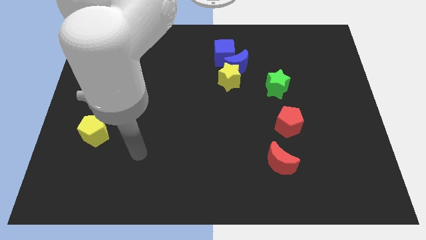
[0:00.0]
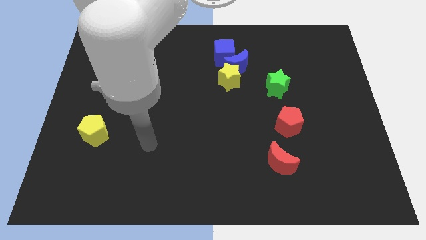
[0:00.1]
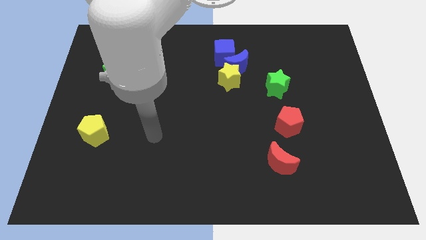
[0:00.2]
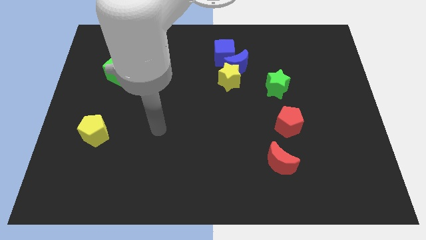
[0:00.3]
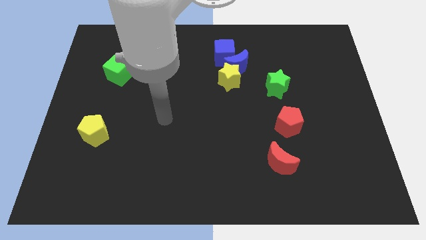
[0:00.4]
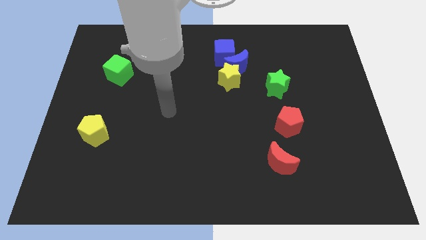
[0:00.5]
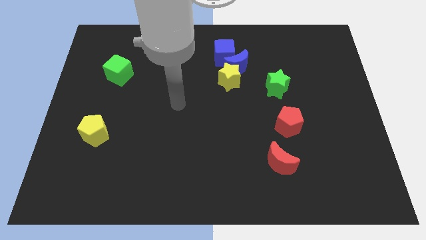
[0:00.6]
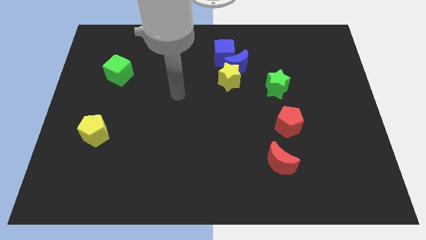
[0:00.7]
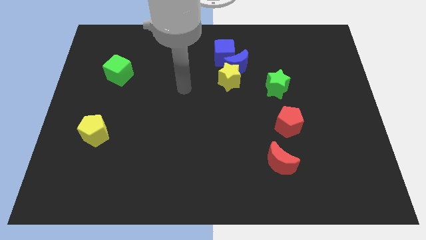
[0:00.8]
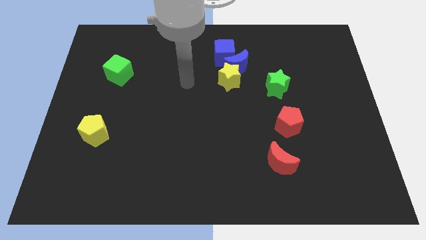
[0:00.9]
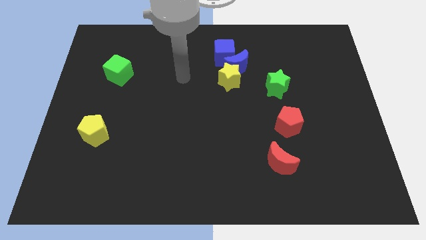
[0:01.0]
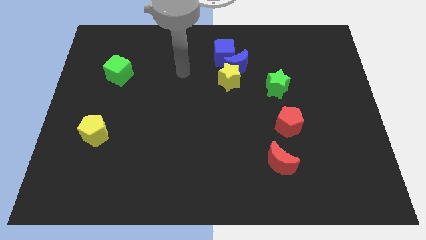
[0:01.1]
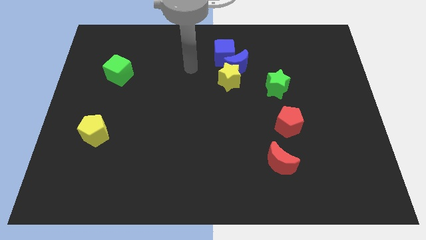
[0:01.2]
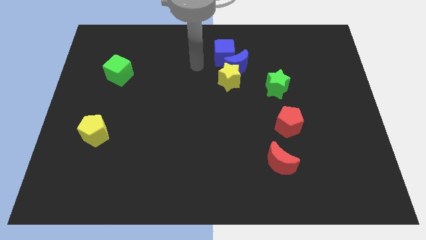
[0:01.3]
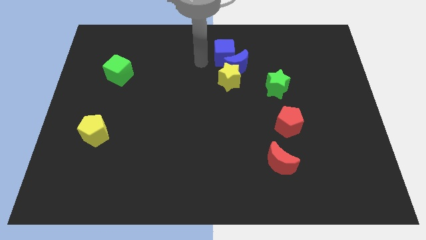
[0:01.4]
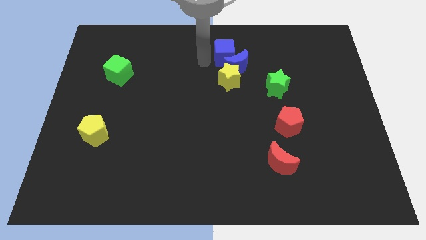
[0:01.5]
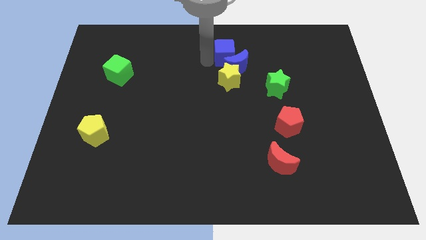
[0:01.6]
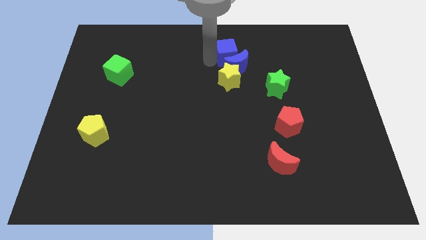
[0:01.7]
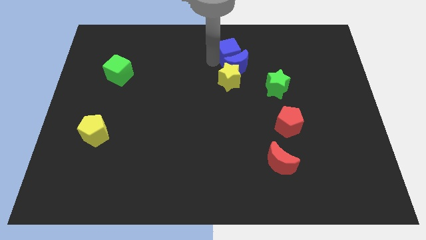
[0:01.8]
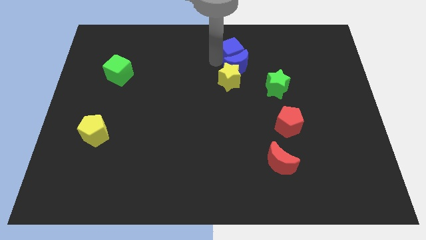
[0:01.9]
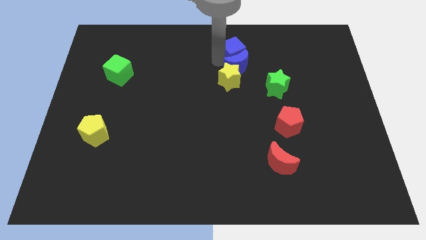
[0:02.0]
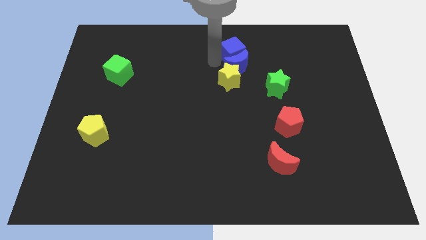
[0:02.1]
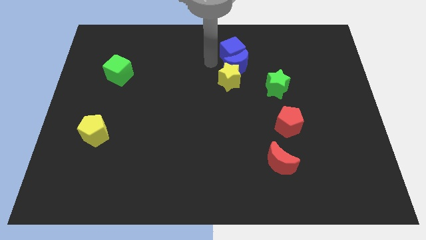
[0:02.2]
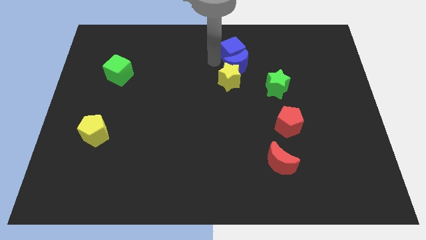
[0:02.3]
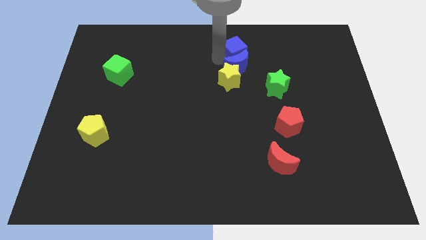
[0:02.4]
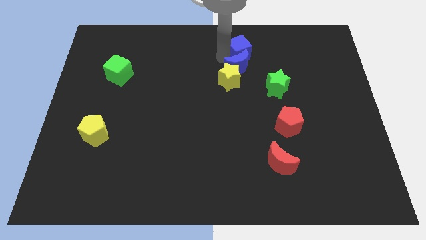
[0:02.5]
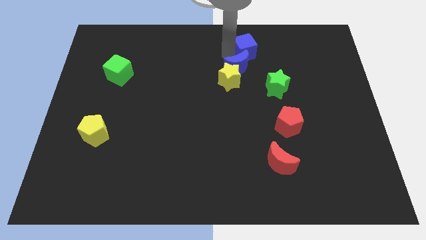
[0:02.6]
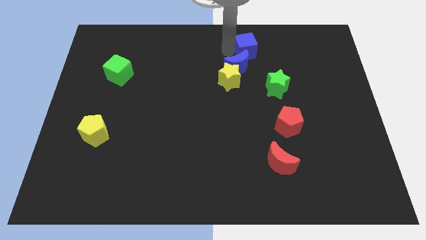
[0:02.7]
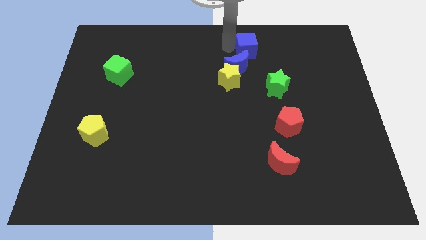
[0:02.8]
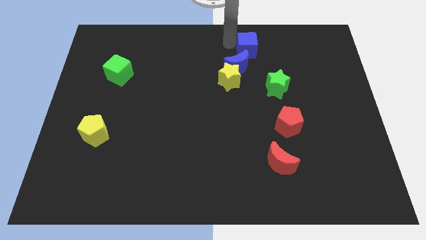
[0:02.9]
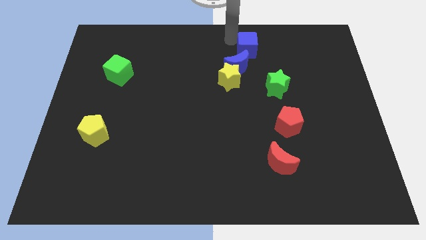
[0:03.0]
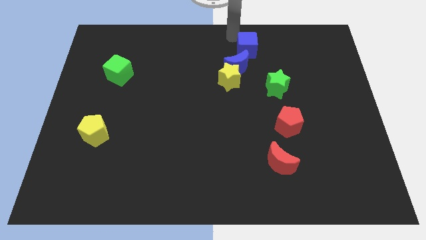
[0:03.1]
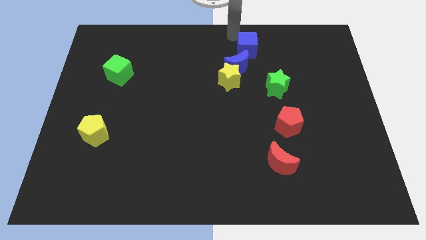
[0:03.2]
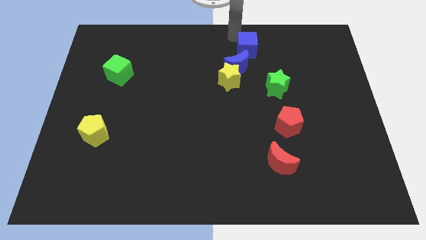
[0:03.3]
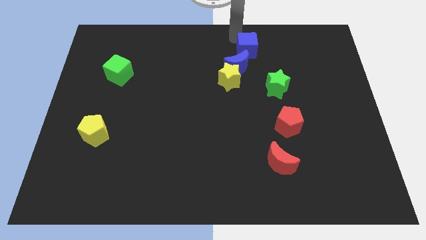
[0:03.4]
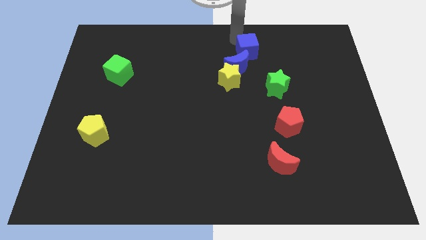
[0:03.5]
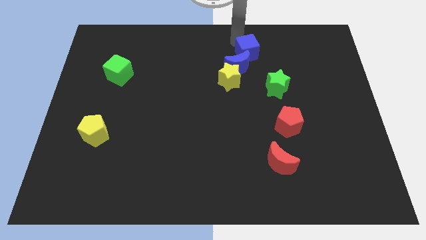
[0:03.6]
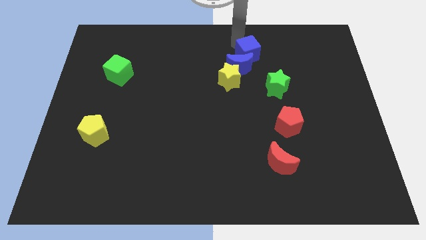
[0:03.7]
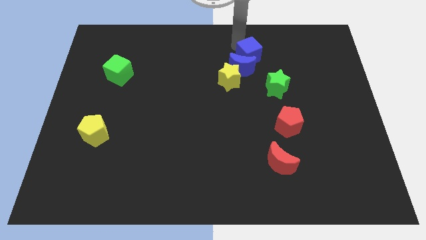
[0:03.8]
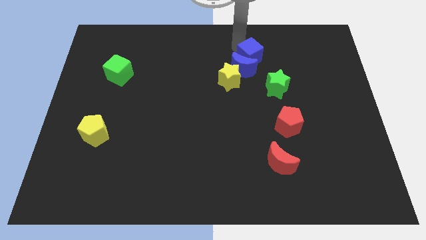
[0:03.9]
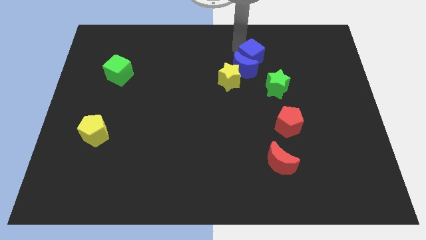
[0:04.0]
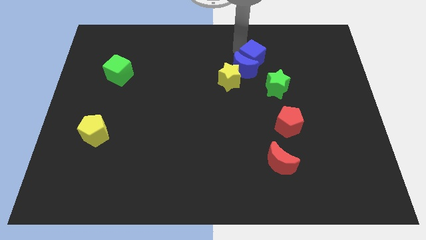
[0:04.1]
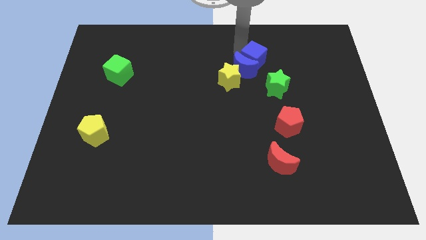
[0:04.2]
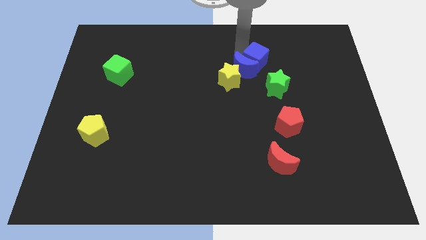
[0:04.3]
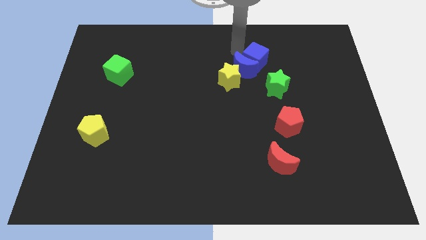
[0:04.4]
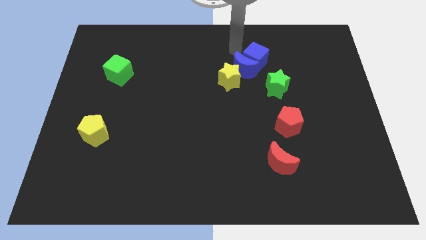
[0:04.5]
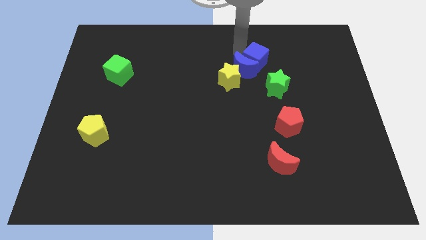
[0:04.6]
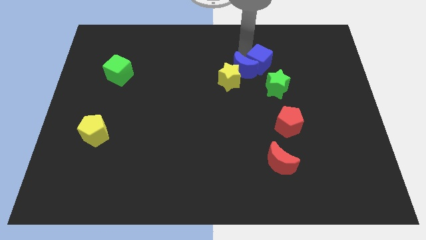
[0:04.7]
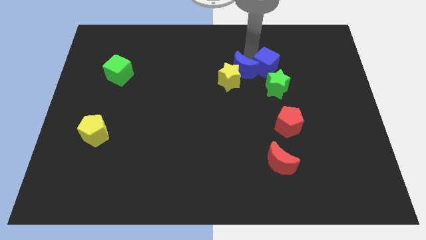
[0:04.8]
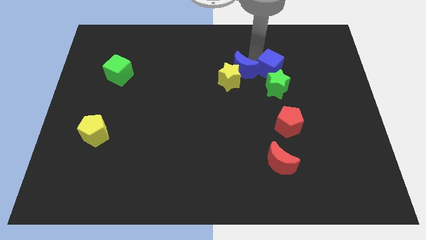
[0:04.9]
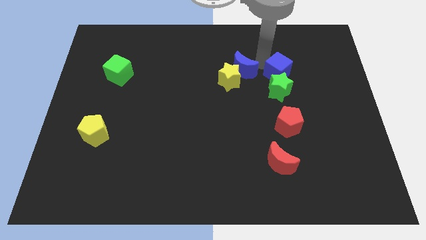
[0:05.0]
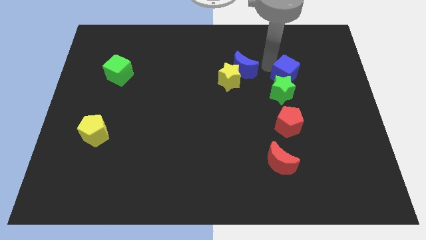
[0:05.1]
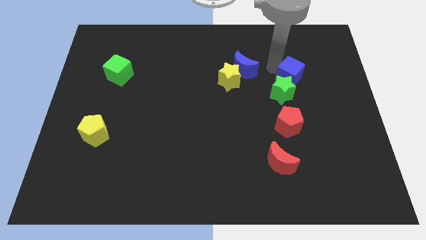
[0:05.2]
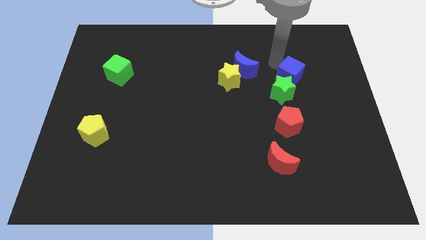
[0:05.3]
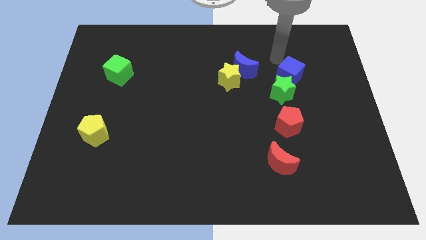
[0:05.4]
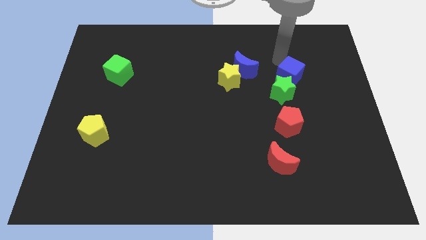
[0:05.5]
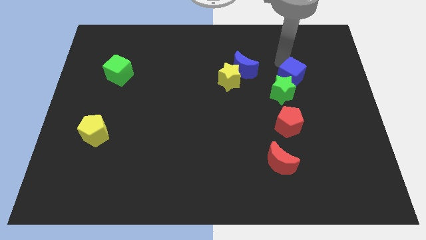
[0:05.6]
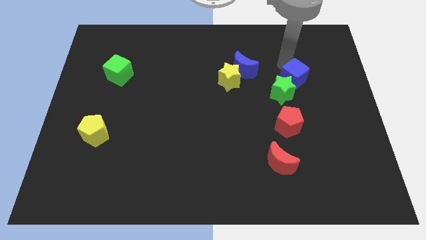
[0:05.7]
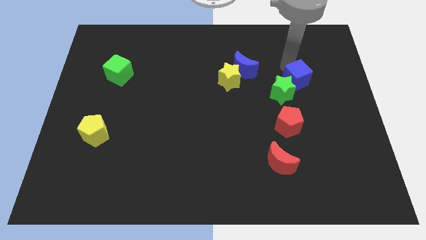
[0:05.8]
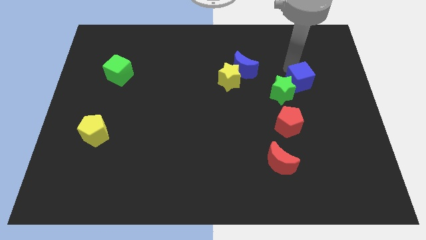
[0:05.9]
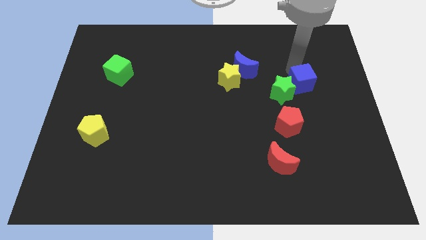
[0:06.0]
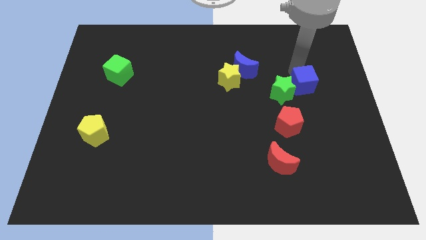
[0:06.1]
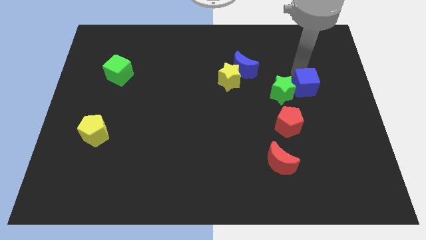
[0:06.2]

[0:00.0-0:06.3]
move the blue cube downwards and to the right diagonally

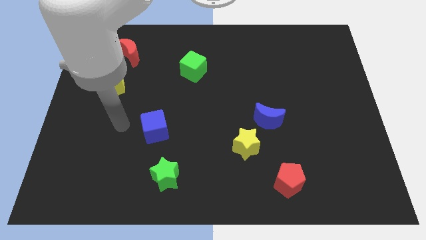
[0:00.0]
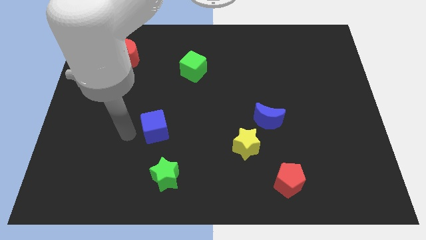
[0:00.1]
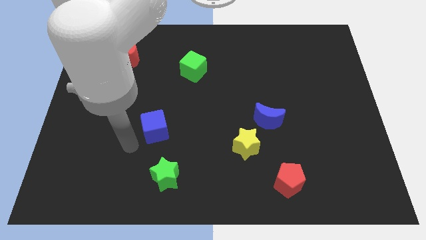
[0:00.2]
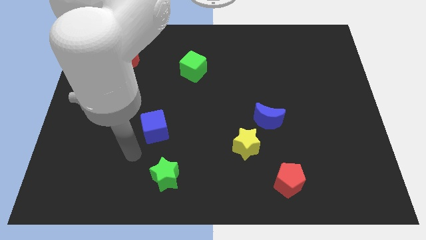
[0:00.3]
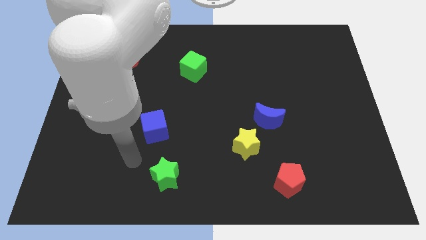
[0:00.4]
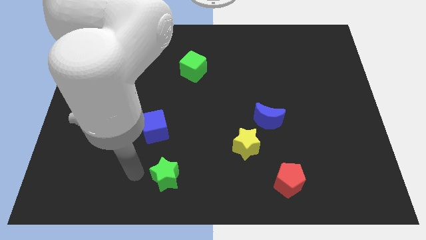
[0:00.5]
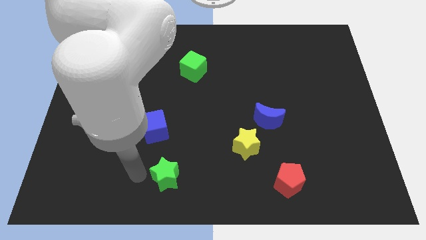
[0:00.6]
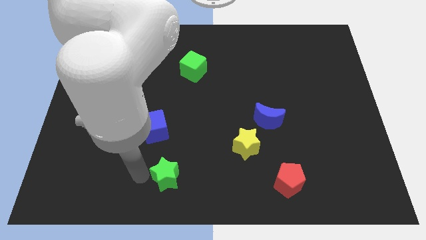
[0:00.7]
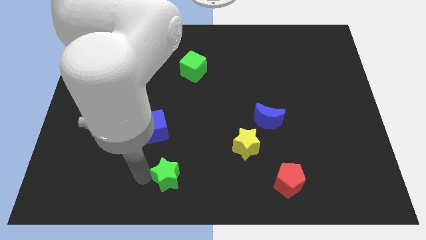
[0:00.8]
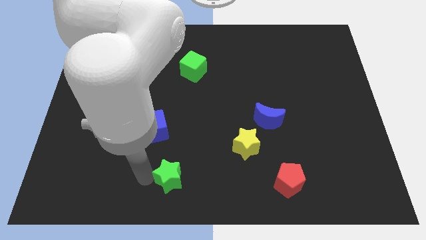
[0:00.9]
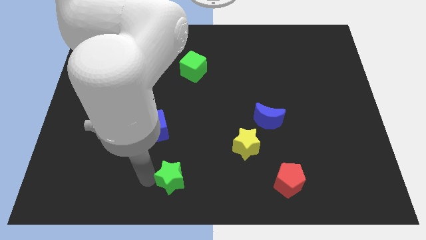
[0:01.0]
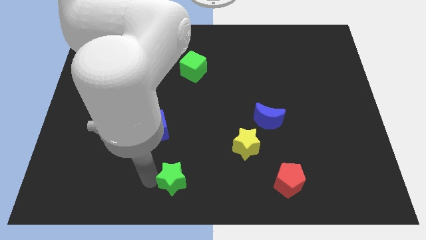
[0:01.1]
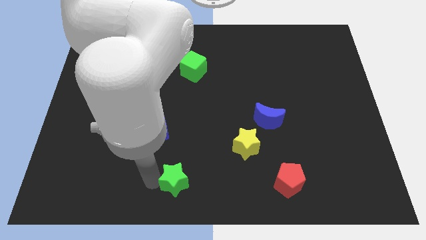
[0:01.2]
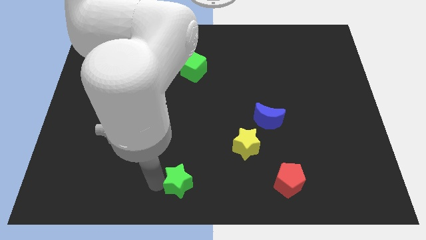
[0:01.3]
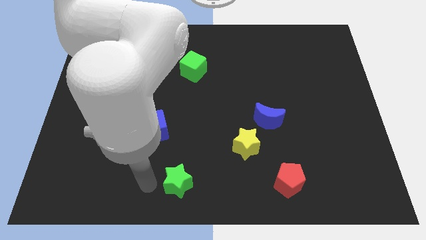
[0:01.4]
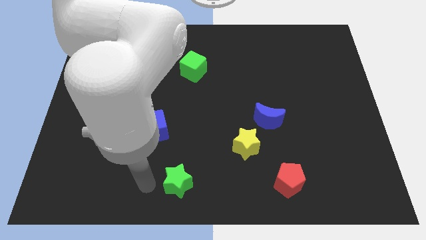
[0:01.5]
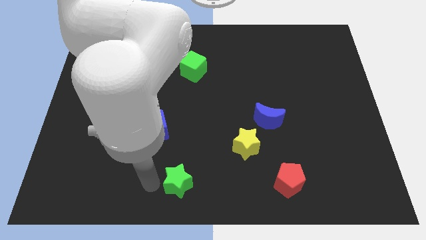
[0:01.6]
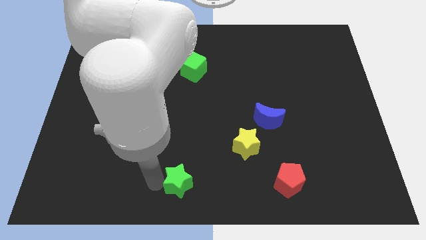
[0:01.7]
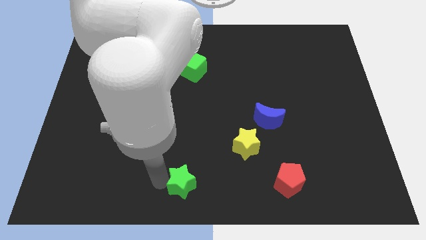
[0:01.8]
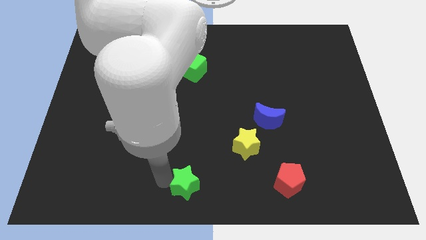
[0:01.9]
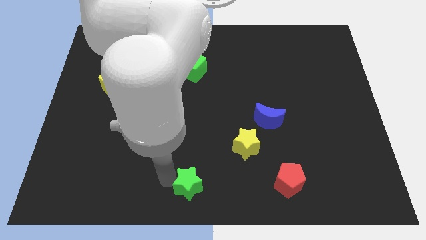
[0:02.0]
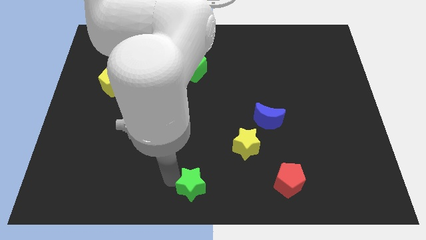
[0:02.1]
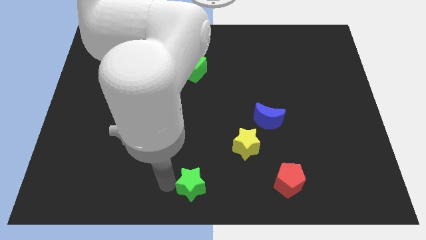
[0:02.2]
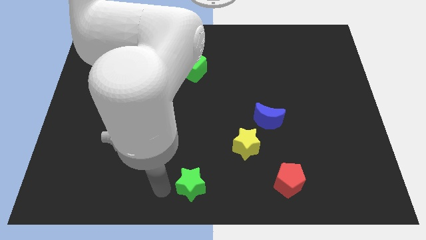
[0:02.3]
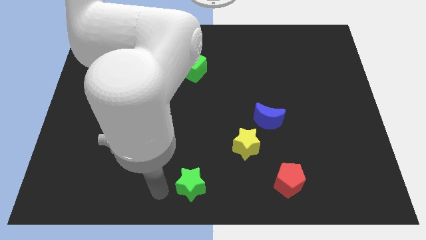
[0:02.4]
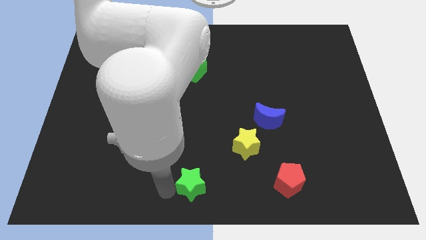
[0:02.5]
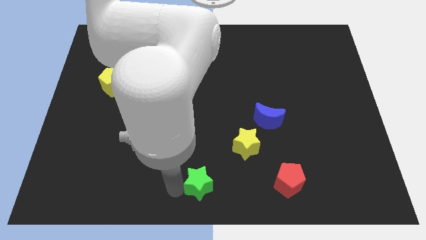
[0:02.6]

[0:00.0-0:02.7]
slightly slide the green star to the right
